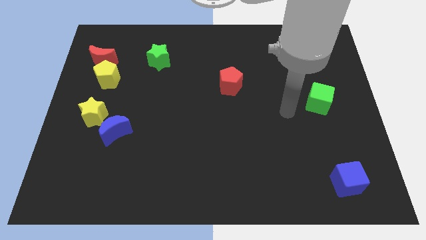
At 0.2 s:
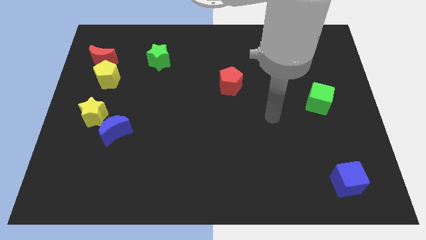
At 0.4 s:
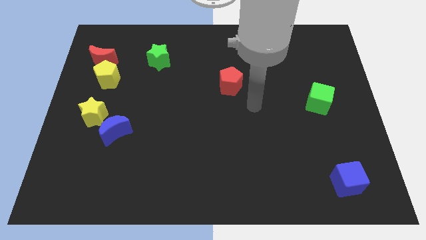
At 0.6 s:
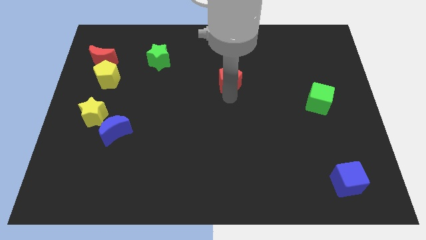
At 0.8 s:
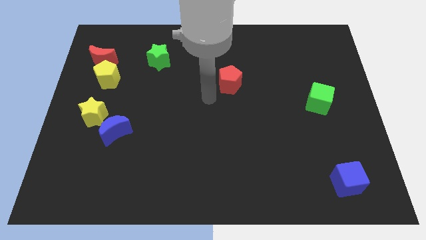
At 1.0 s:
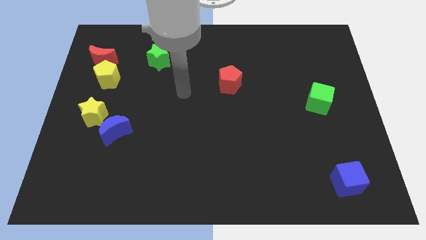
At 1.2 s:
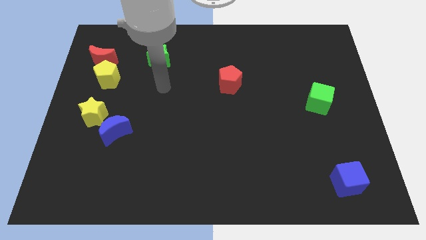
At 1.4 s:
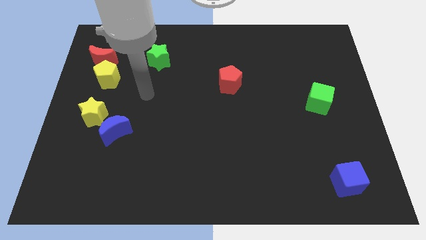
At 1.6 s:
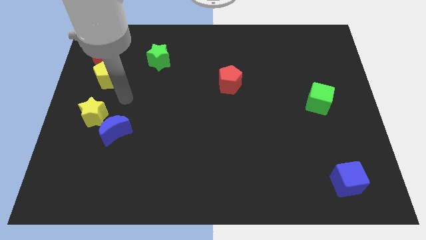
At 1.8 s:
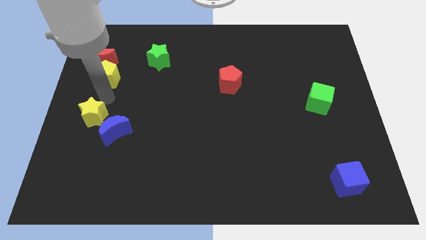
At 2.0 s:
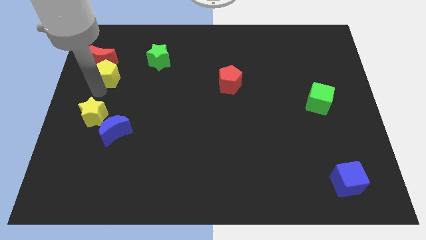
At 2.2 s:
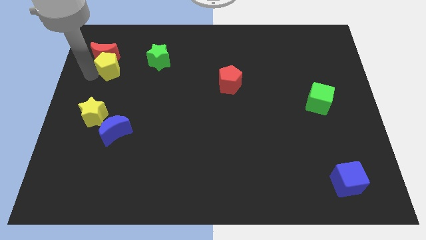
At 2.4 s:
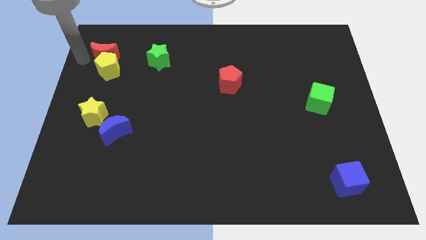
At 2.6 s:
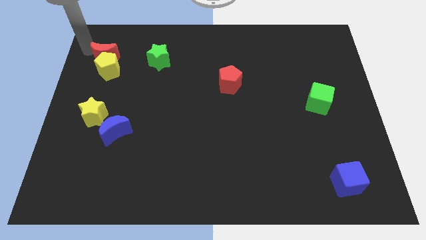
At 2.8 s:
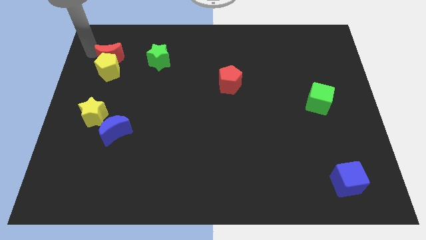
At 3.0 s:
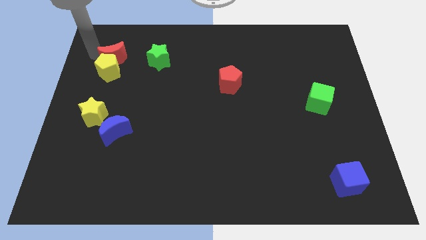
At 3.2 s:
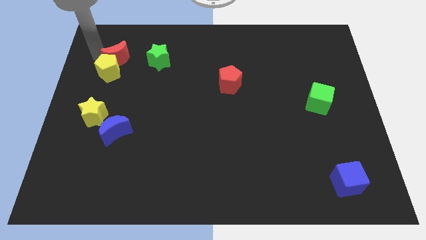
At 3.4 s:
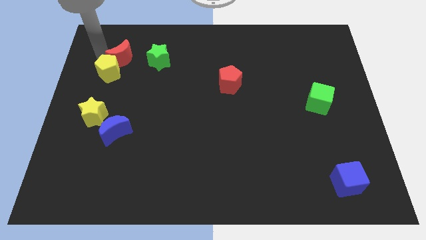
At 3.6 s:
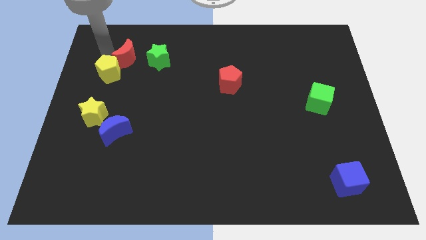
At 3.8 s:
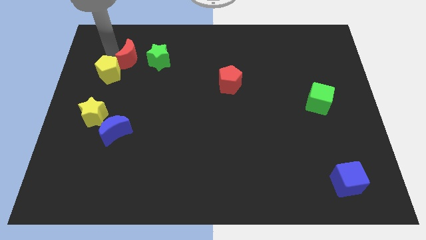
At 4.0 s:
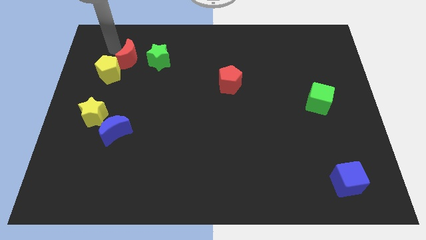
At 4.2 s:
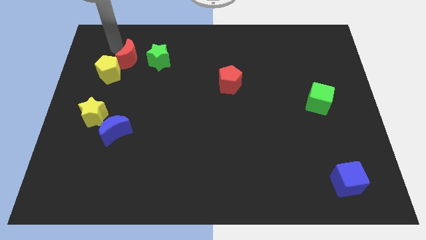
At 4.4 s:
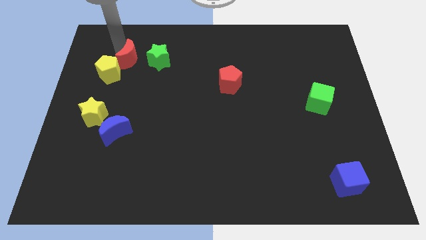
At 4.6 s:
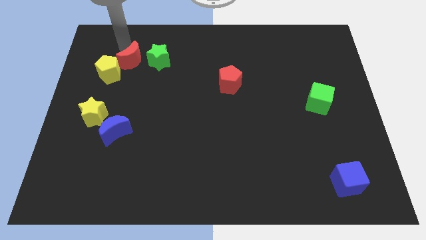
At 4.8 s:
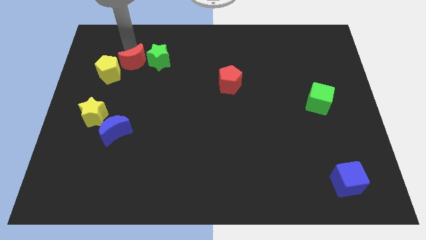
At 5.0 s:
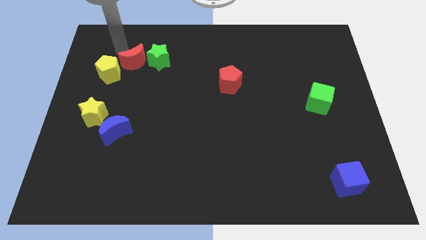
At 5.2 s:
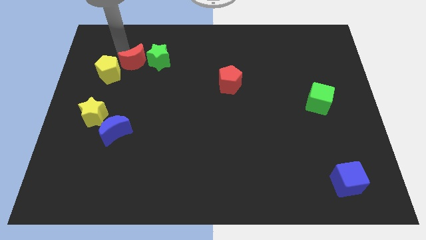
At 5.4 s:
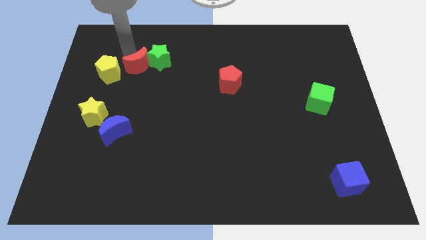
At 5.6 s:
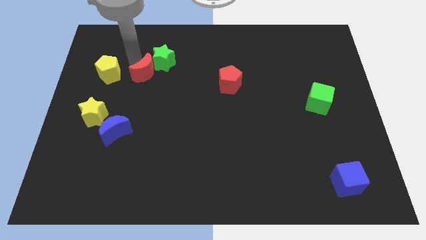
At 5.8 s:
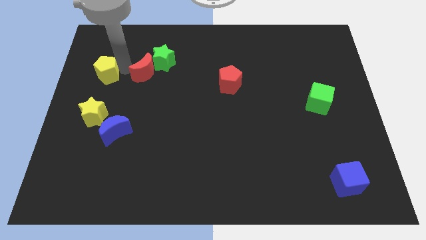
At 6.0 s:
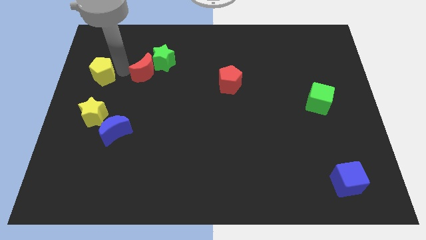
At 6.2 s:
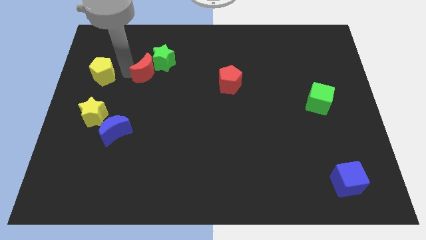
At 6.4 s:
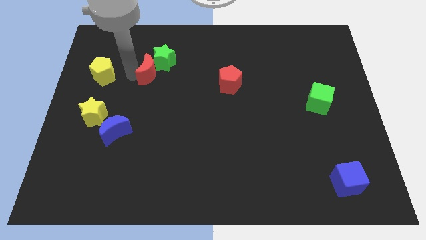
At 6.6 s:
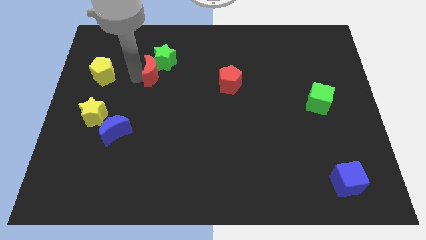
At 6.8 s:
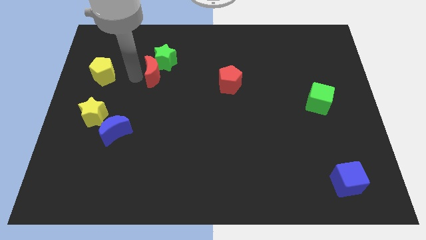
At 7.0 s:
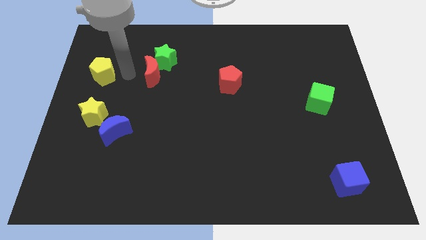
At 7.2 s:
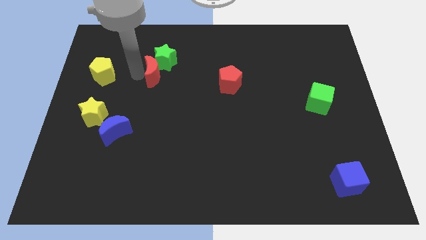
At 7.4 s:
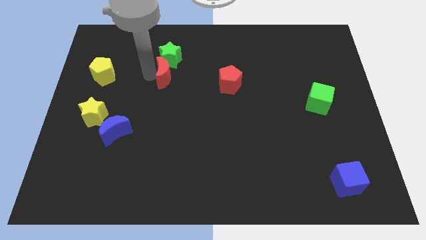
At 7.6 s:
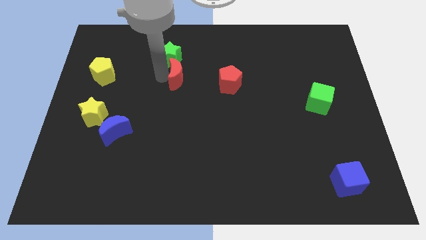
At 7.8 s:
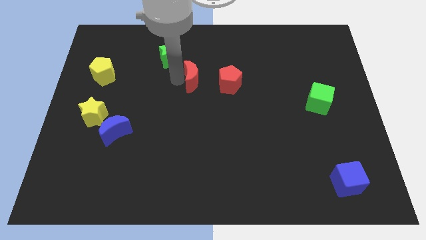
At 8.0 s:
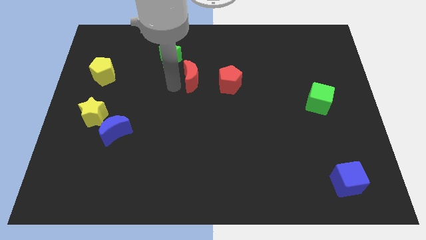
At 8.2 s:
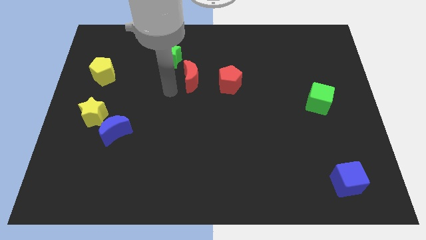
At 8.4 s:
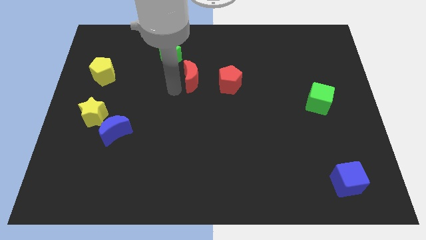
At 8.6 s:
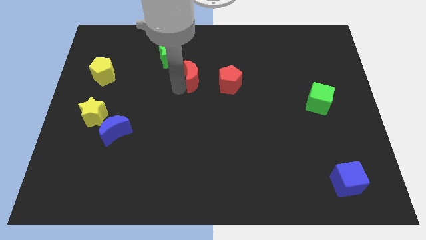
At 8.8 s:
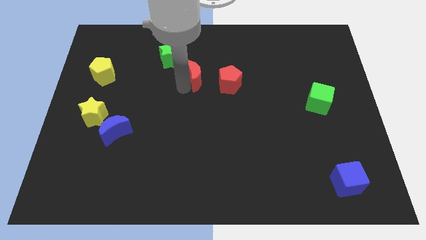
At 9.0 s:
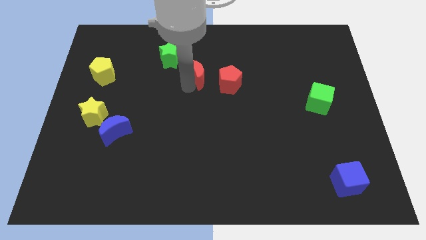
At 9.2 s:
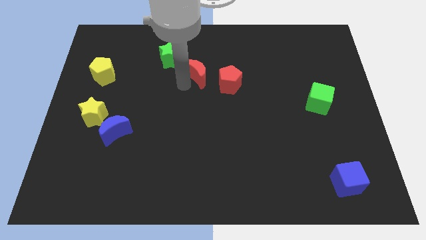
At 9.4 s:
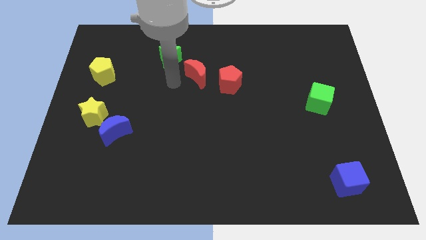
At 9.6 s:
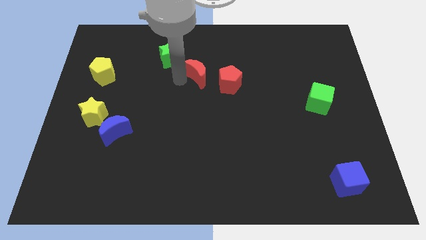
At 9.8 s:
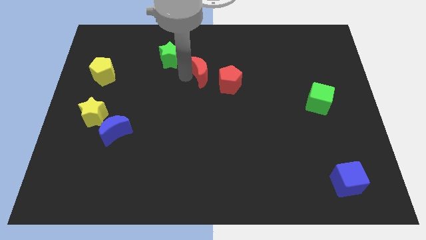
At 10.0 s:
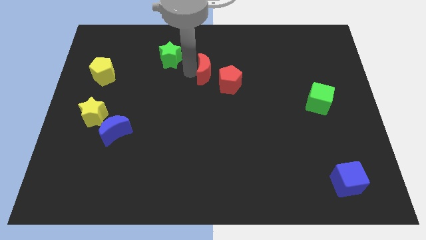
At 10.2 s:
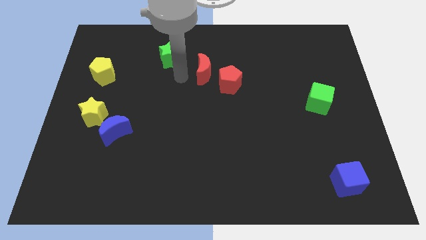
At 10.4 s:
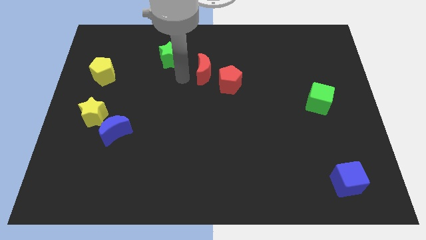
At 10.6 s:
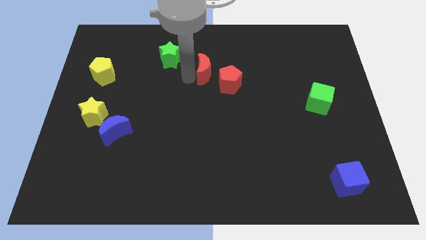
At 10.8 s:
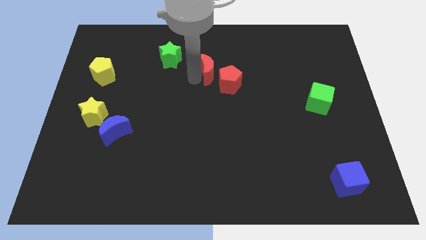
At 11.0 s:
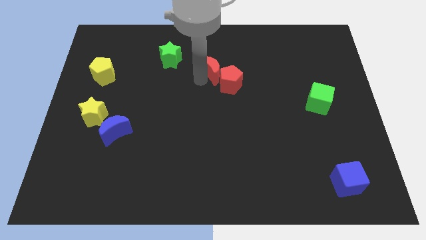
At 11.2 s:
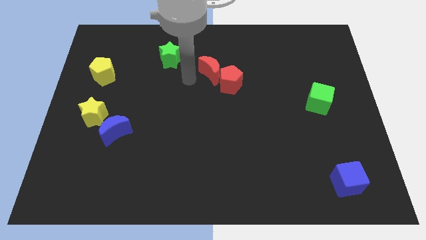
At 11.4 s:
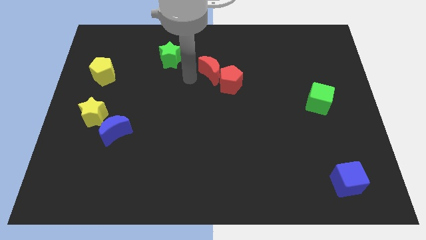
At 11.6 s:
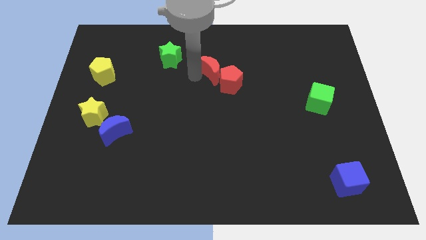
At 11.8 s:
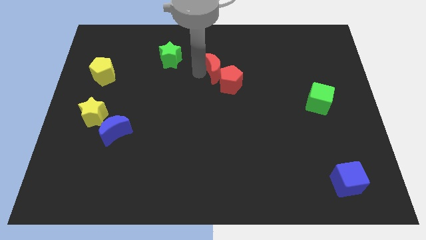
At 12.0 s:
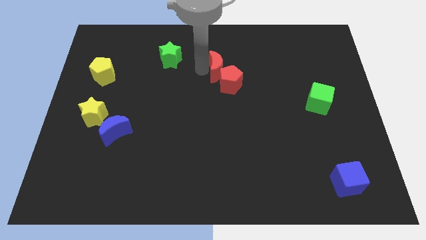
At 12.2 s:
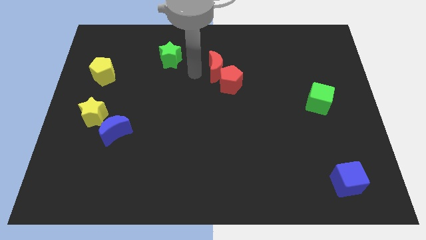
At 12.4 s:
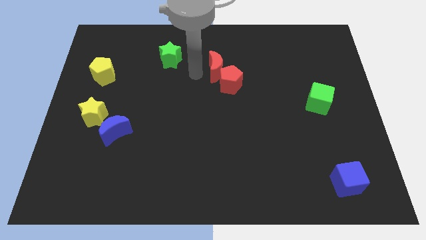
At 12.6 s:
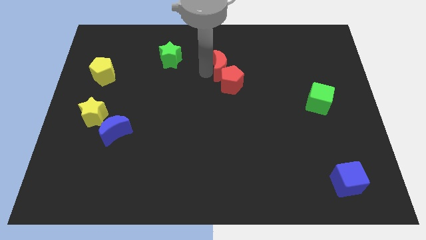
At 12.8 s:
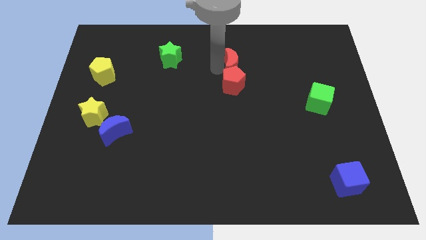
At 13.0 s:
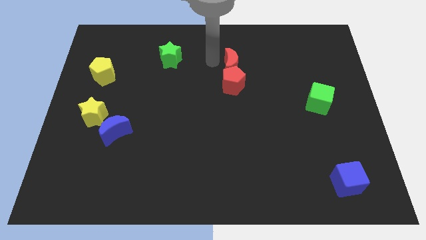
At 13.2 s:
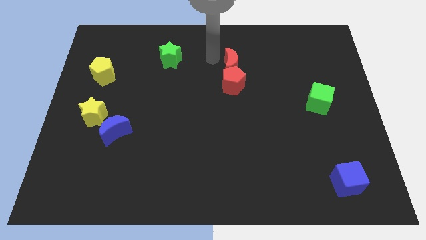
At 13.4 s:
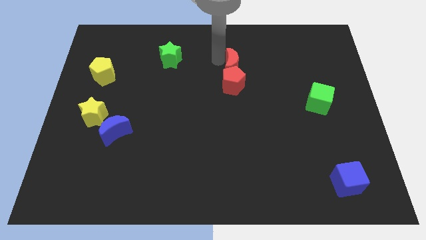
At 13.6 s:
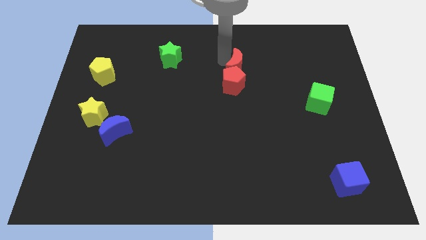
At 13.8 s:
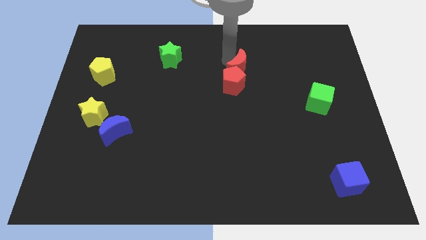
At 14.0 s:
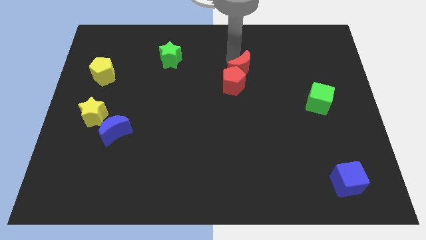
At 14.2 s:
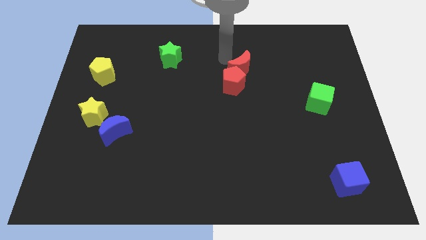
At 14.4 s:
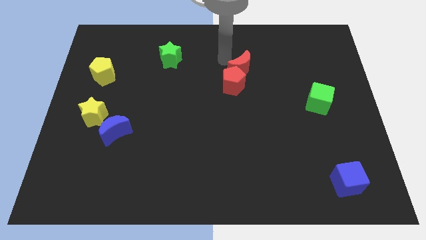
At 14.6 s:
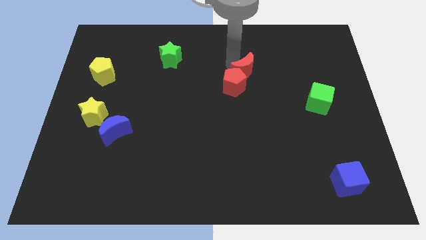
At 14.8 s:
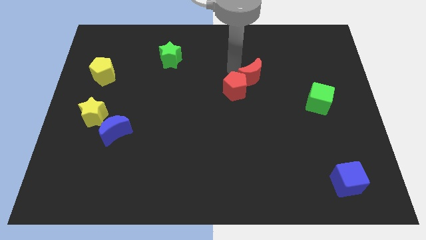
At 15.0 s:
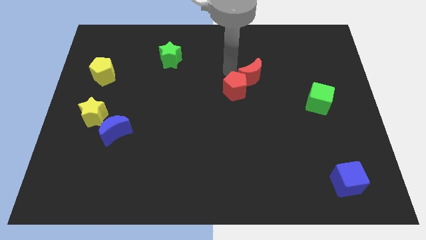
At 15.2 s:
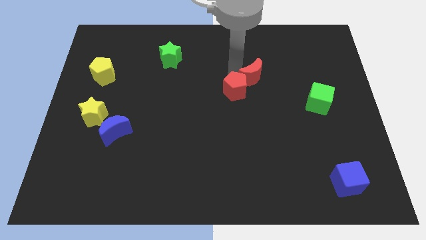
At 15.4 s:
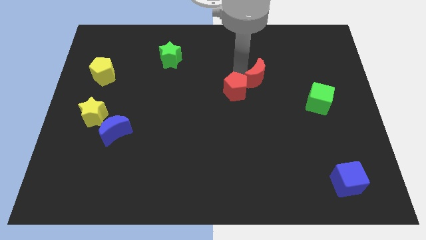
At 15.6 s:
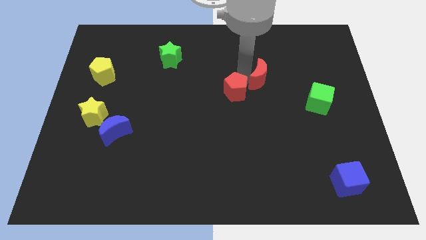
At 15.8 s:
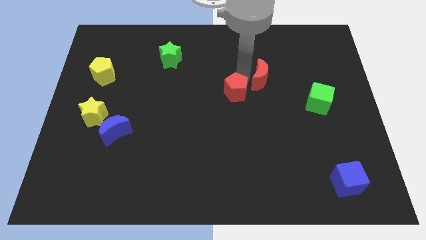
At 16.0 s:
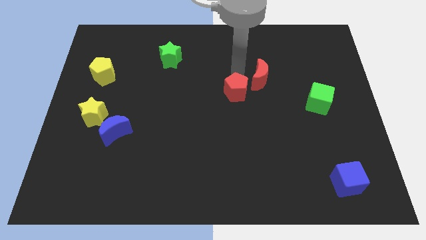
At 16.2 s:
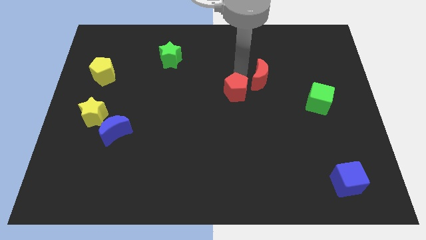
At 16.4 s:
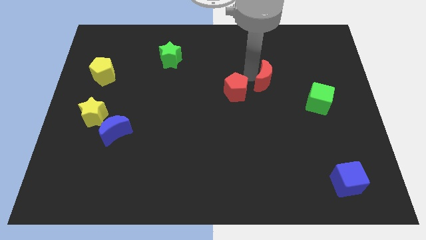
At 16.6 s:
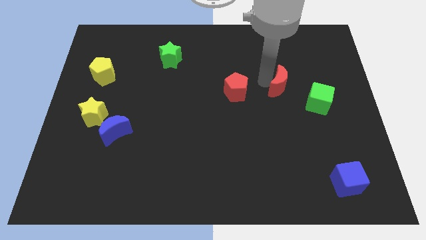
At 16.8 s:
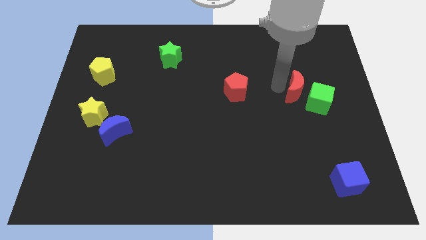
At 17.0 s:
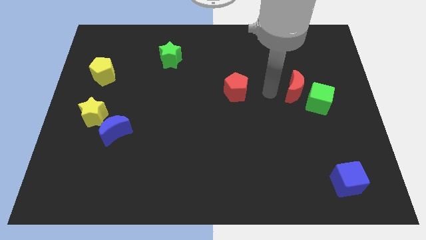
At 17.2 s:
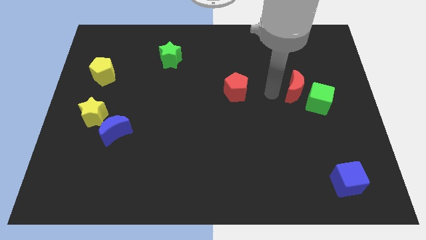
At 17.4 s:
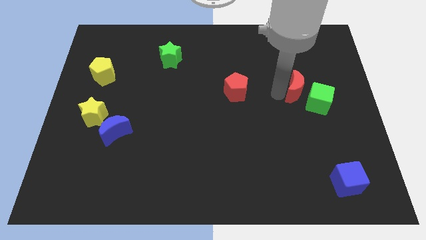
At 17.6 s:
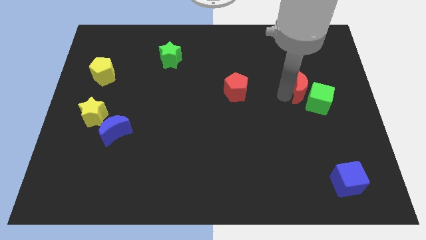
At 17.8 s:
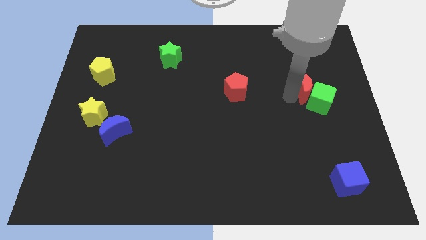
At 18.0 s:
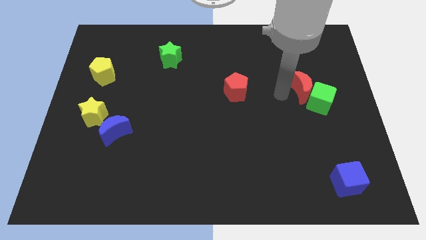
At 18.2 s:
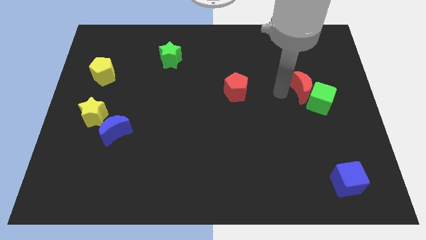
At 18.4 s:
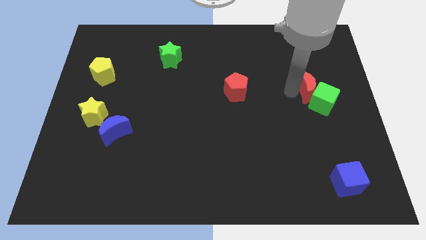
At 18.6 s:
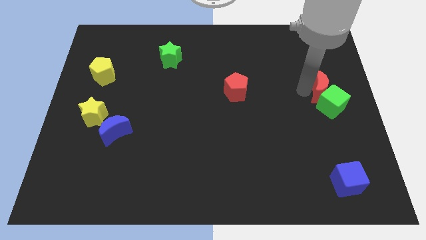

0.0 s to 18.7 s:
slide the red moon to the right side of the board
